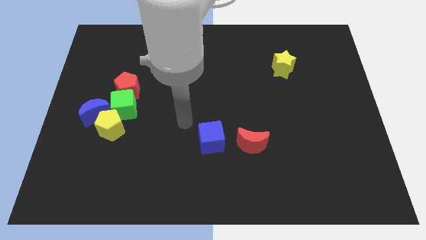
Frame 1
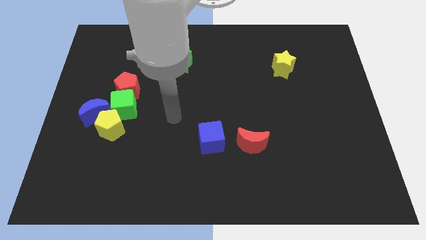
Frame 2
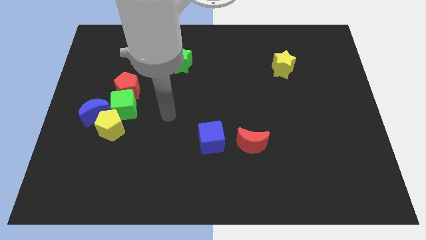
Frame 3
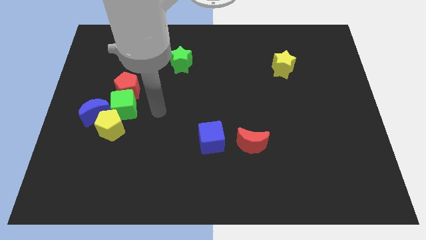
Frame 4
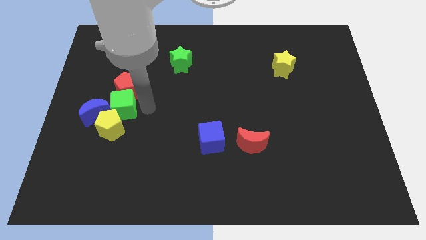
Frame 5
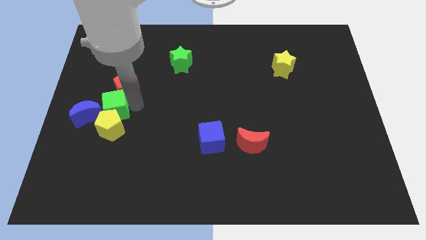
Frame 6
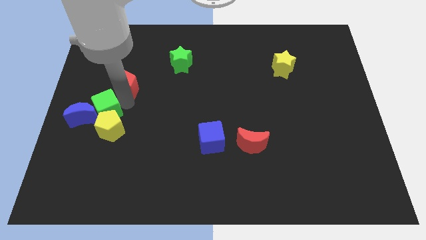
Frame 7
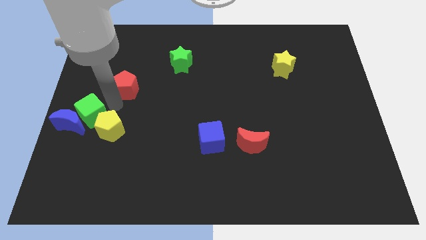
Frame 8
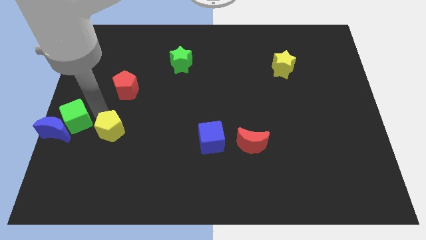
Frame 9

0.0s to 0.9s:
pull the yellow pentagon apart from the blue moon and green cube

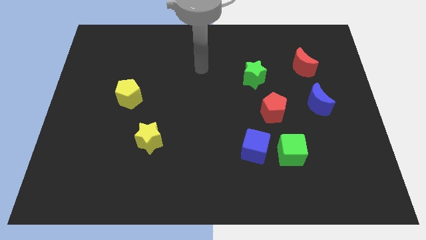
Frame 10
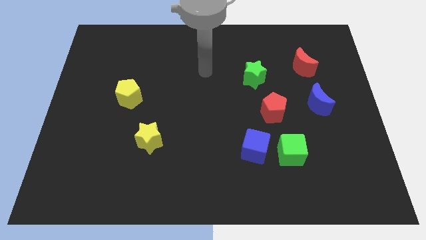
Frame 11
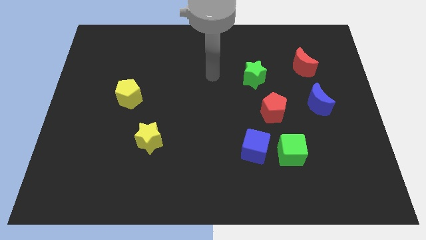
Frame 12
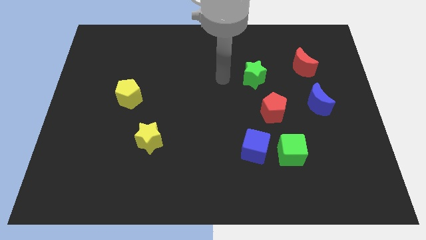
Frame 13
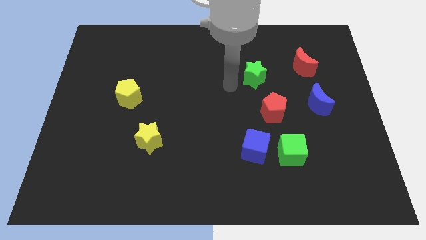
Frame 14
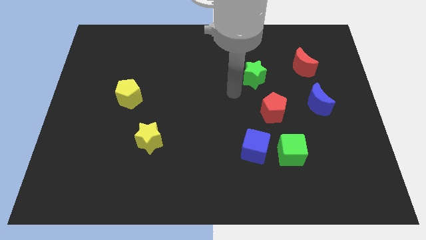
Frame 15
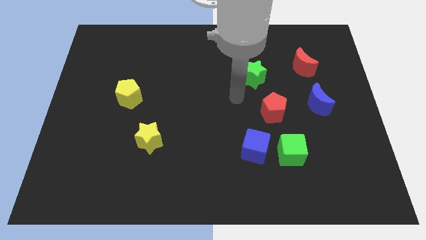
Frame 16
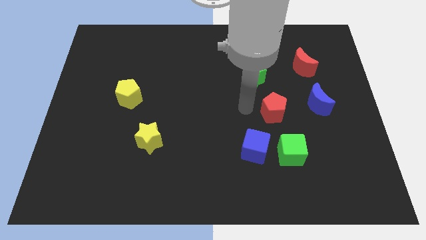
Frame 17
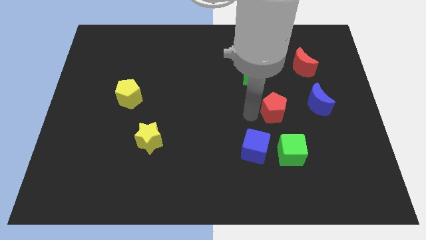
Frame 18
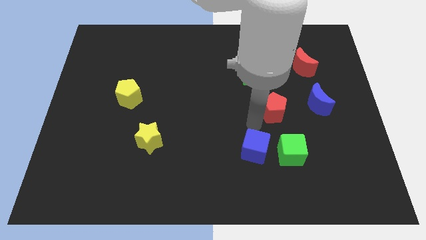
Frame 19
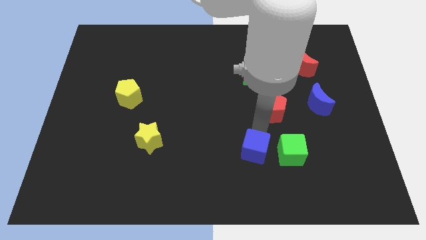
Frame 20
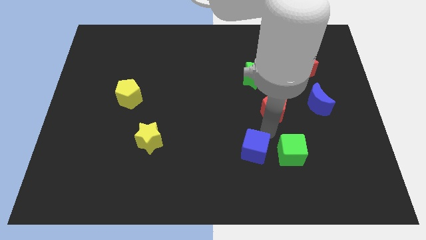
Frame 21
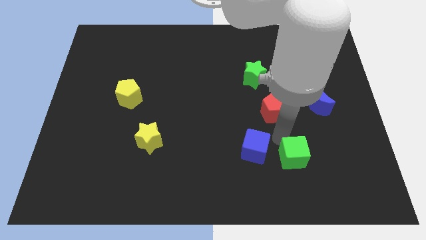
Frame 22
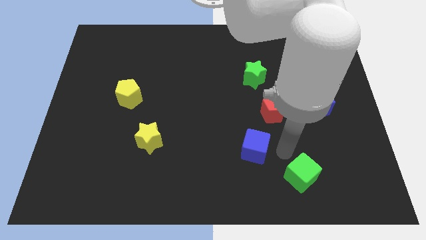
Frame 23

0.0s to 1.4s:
move the blue cube away from the green cube

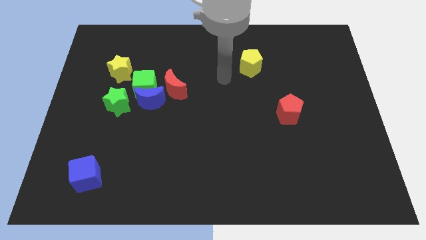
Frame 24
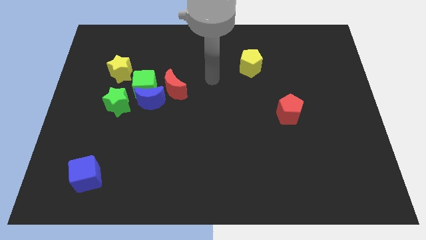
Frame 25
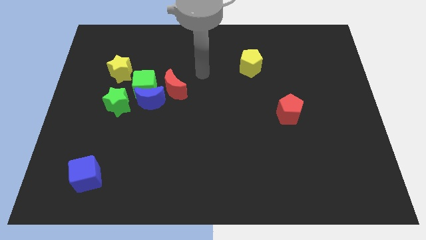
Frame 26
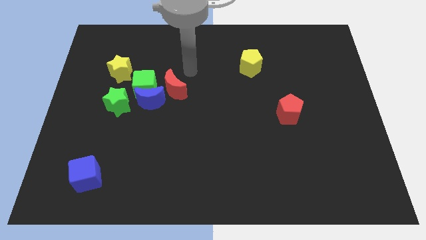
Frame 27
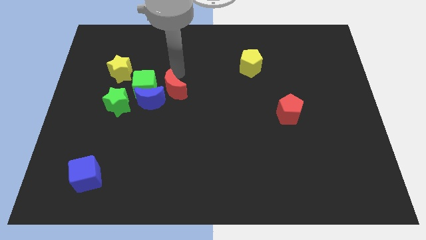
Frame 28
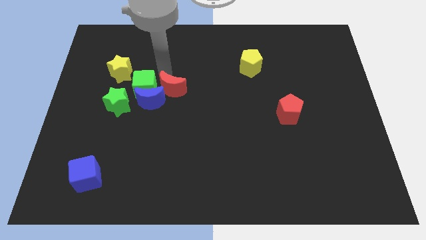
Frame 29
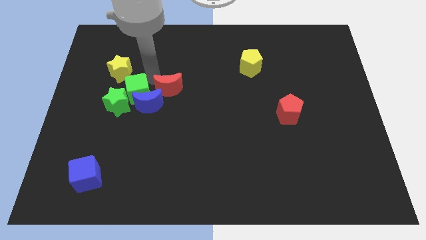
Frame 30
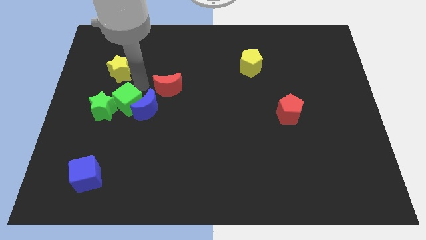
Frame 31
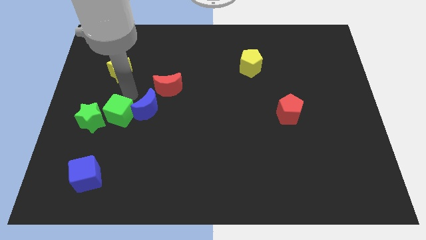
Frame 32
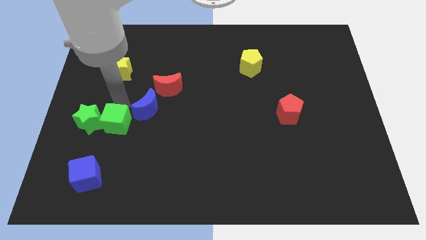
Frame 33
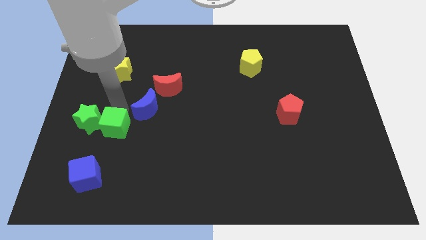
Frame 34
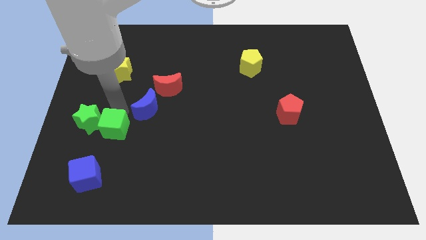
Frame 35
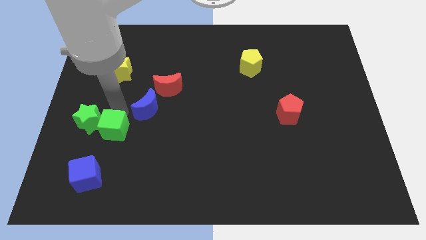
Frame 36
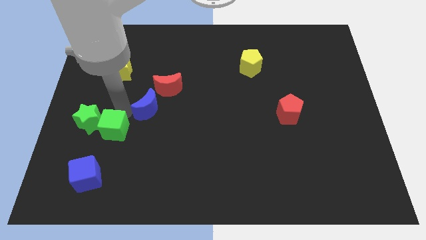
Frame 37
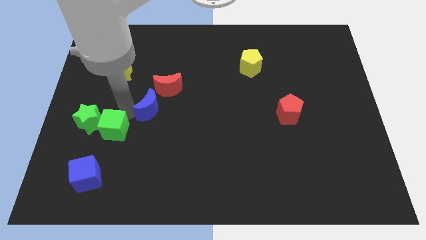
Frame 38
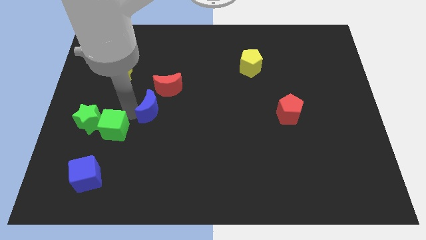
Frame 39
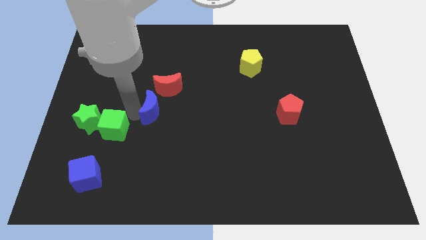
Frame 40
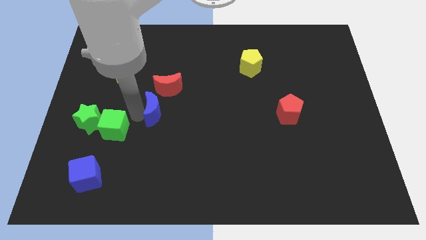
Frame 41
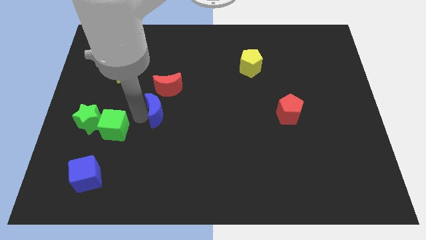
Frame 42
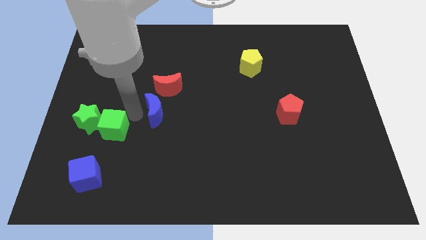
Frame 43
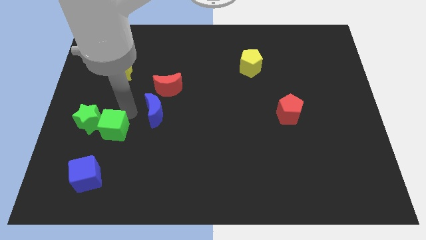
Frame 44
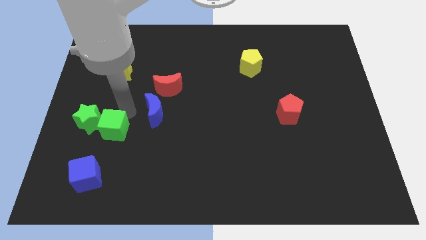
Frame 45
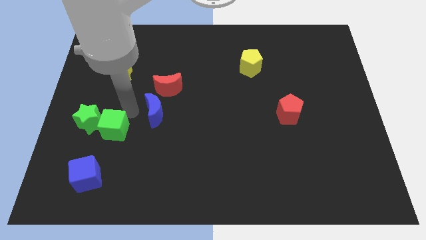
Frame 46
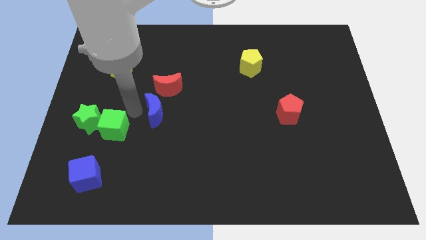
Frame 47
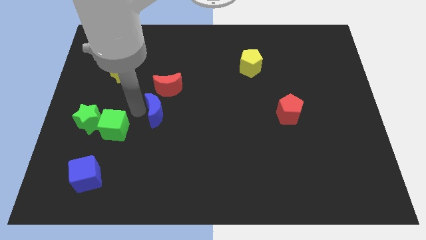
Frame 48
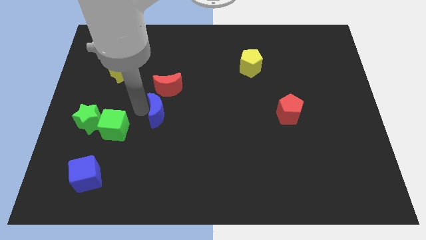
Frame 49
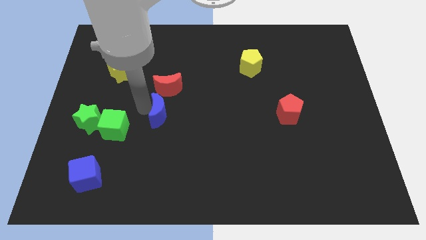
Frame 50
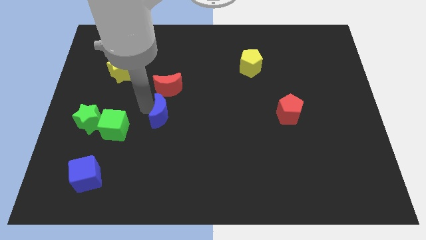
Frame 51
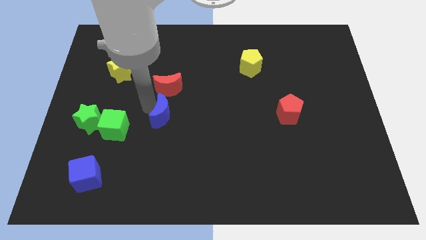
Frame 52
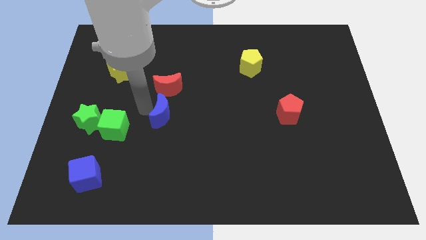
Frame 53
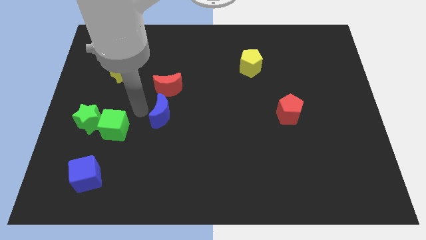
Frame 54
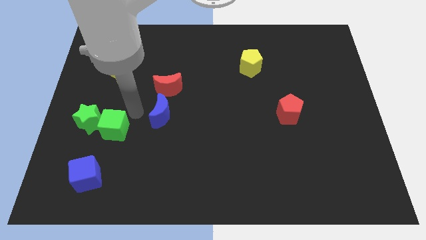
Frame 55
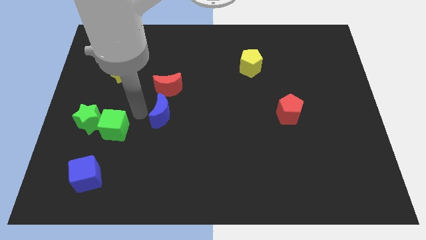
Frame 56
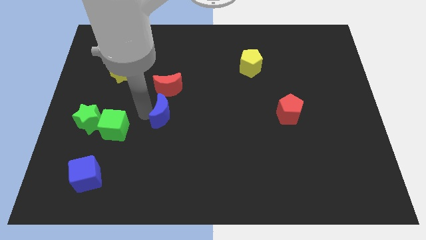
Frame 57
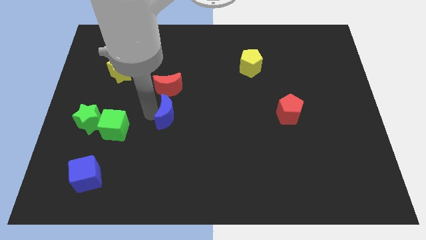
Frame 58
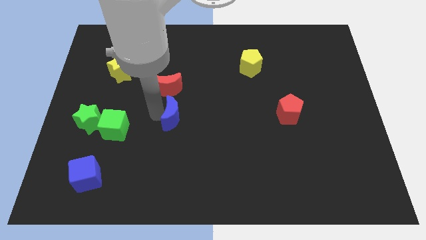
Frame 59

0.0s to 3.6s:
pull the blue moon apart from the green cube, red moon, and green star

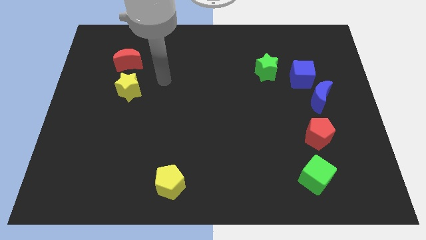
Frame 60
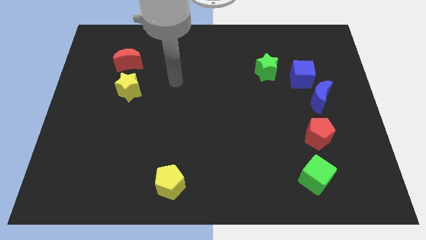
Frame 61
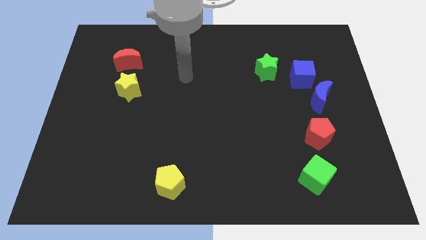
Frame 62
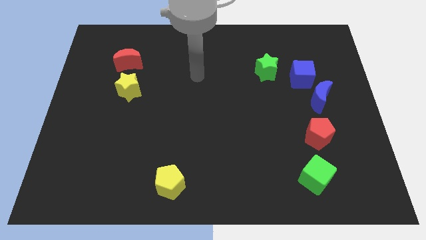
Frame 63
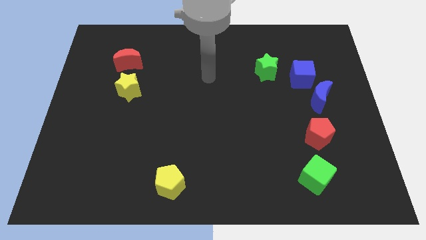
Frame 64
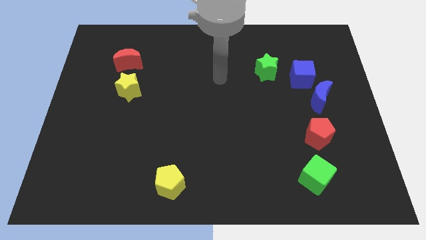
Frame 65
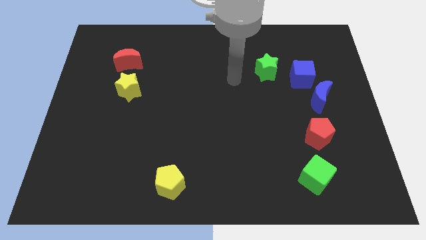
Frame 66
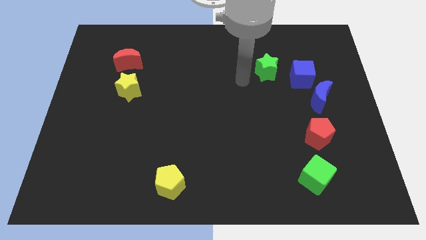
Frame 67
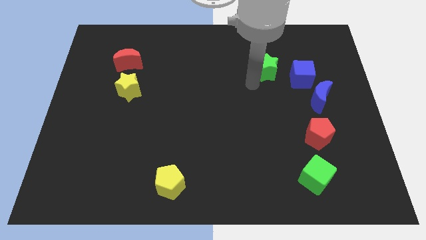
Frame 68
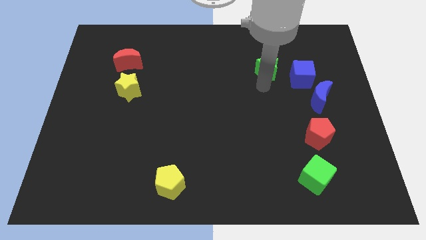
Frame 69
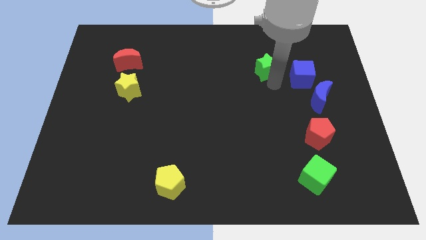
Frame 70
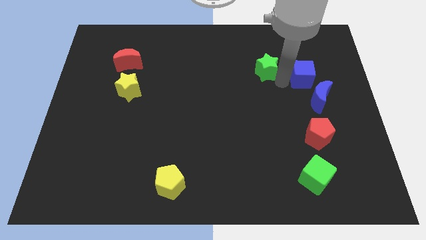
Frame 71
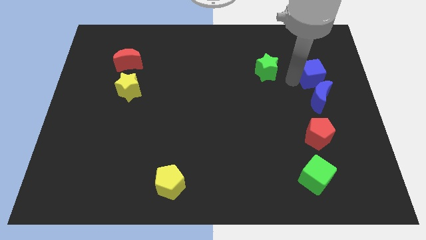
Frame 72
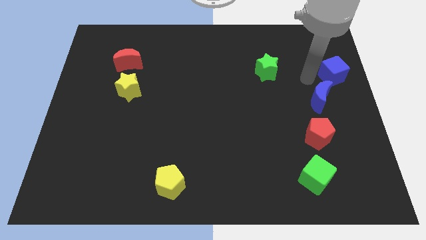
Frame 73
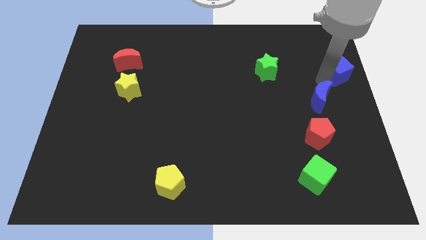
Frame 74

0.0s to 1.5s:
separate the blue moon from the blue cube

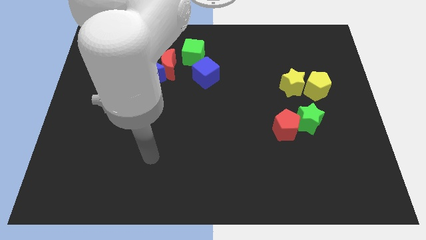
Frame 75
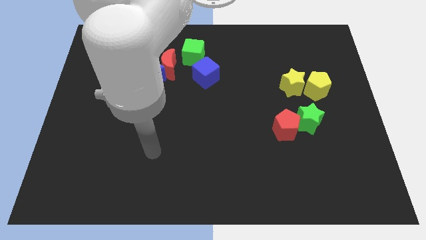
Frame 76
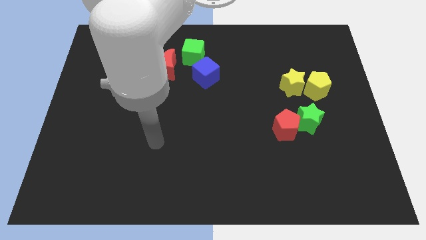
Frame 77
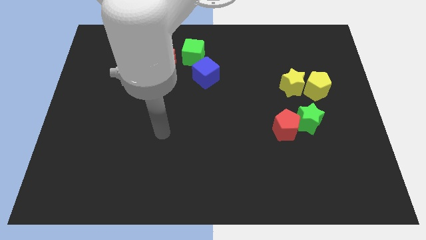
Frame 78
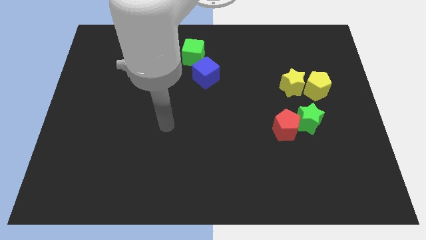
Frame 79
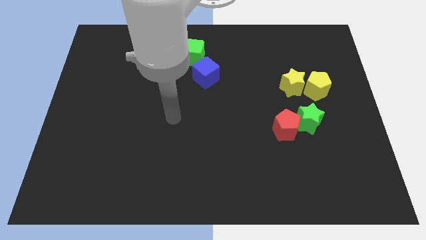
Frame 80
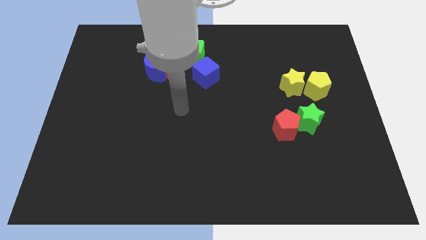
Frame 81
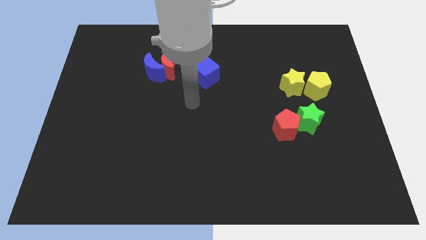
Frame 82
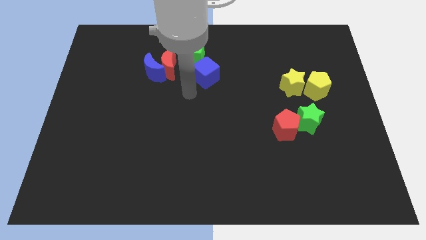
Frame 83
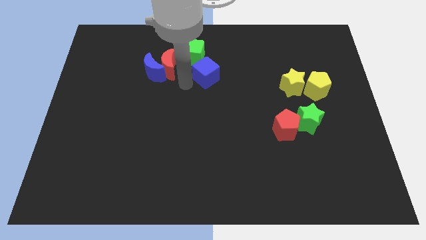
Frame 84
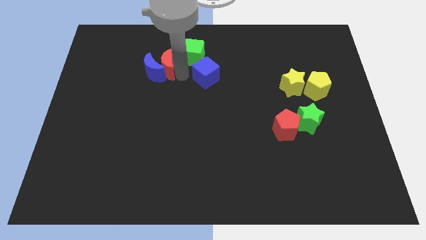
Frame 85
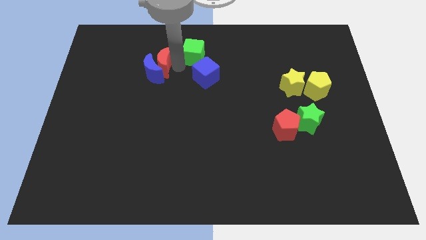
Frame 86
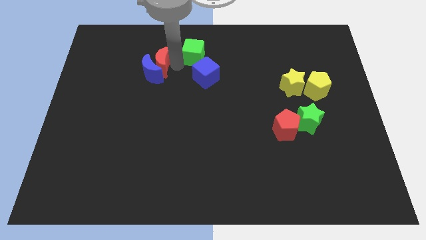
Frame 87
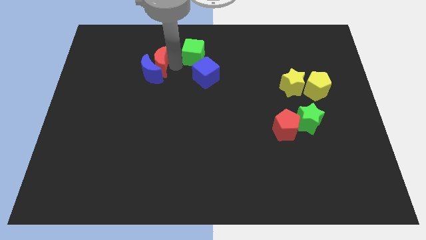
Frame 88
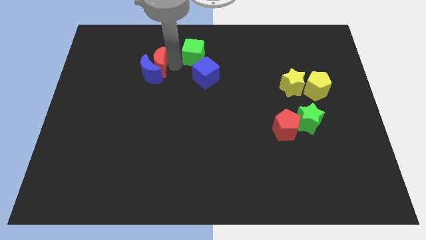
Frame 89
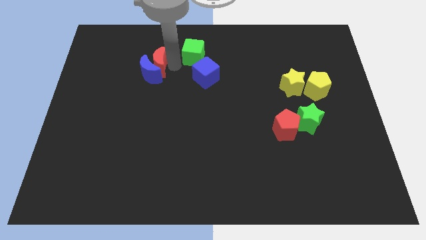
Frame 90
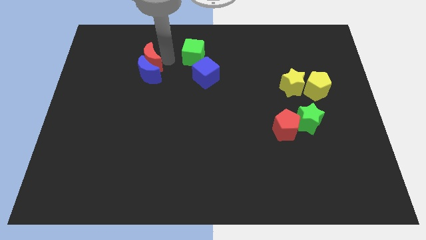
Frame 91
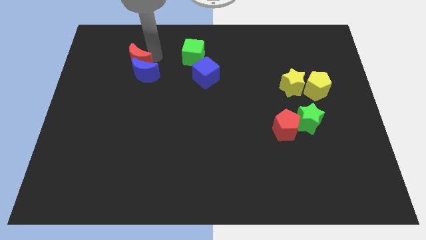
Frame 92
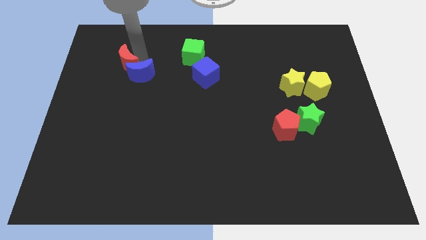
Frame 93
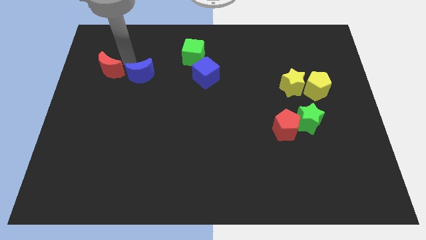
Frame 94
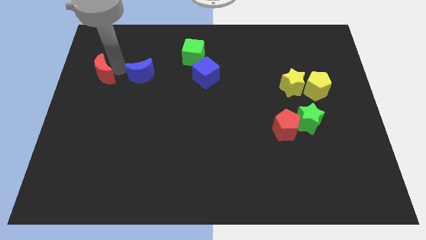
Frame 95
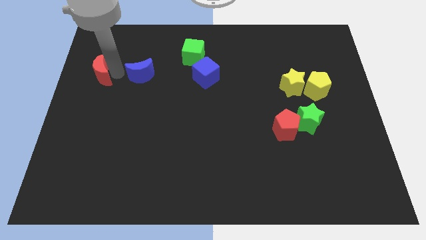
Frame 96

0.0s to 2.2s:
pull the blue moon apart from the red moon
